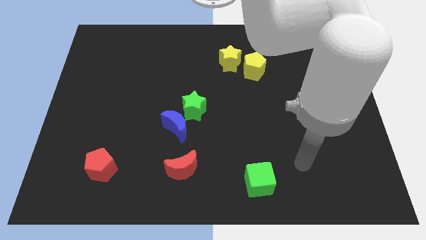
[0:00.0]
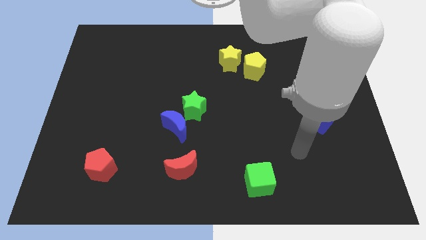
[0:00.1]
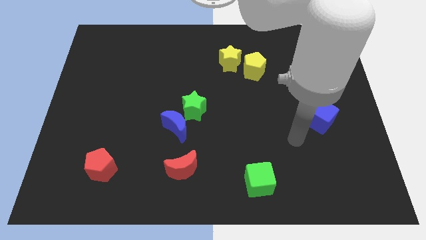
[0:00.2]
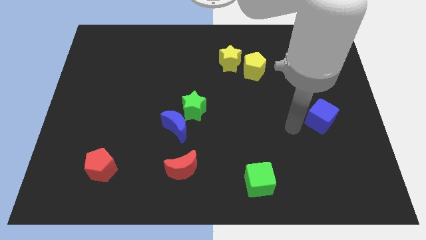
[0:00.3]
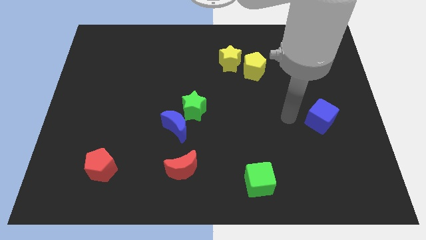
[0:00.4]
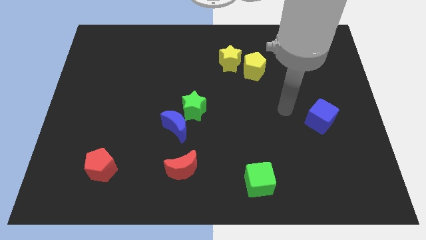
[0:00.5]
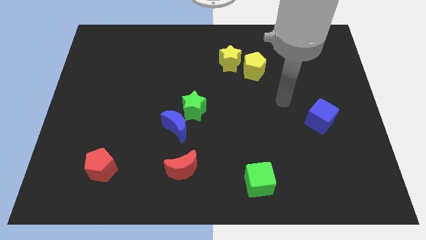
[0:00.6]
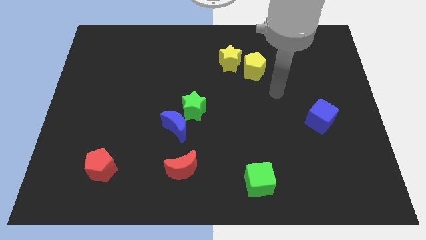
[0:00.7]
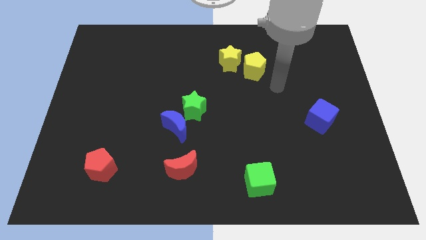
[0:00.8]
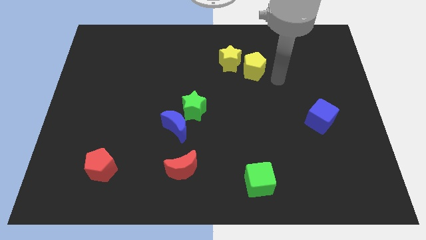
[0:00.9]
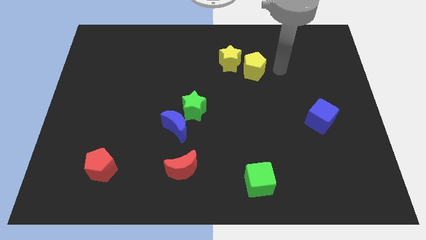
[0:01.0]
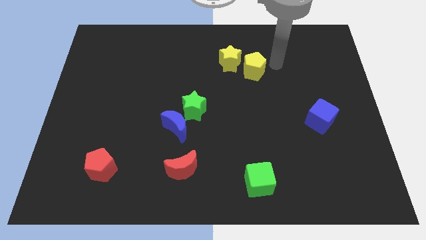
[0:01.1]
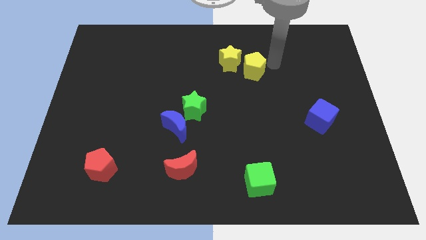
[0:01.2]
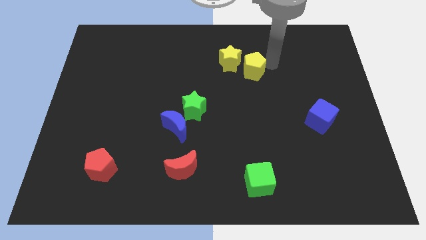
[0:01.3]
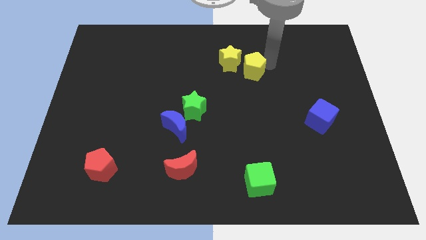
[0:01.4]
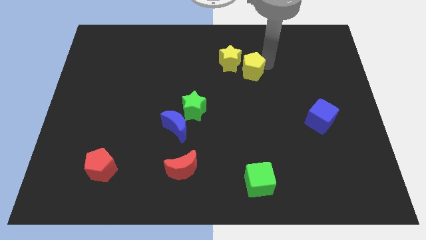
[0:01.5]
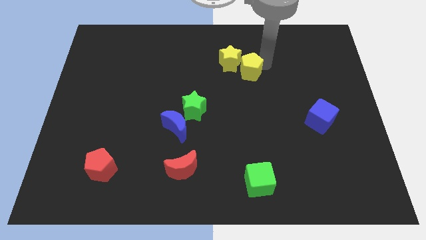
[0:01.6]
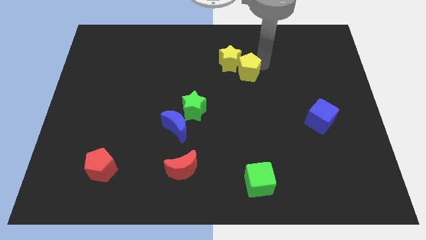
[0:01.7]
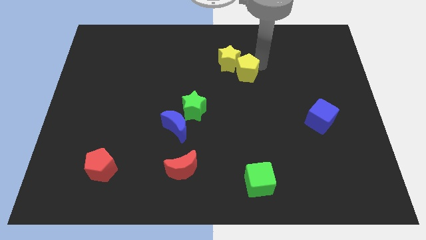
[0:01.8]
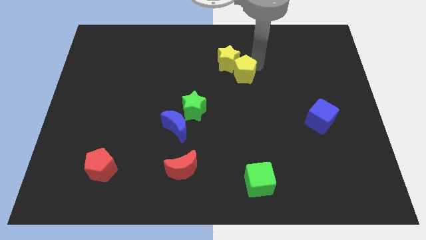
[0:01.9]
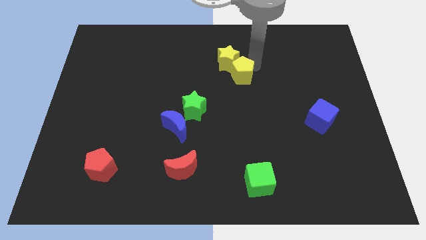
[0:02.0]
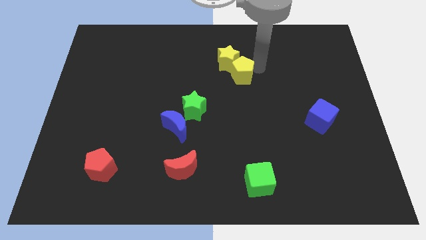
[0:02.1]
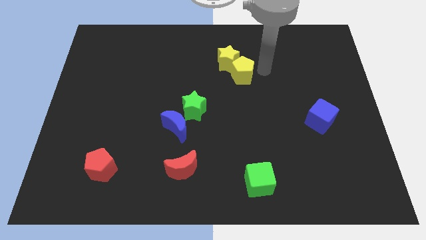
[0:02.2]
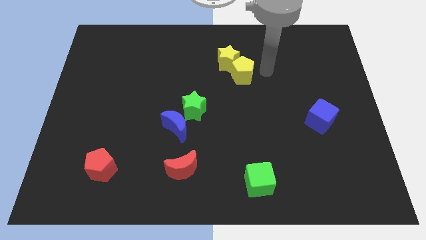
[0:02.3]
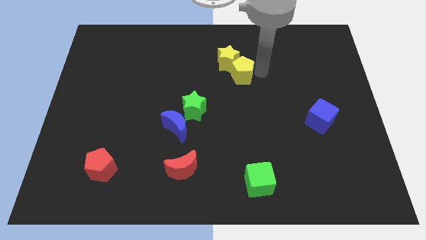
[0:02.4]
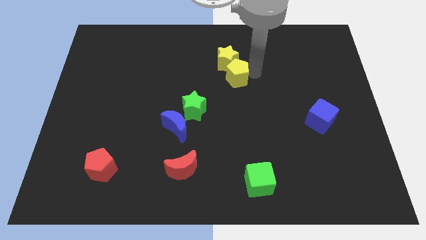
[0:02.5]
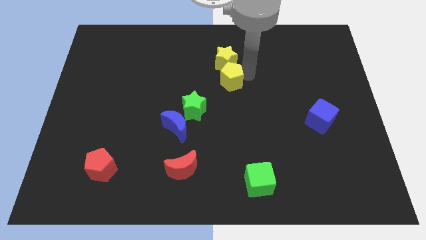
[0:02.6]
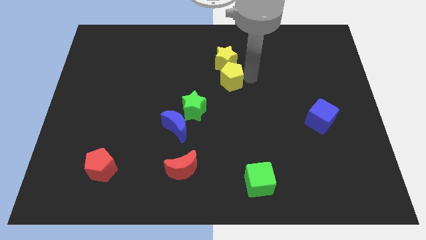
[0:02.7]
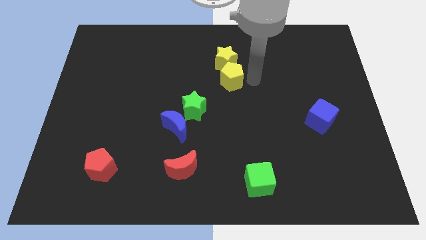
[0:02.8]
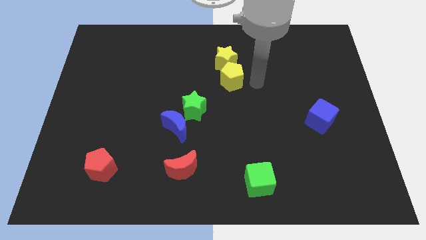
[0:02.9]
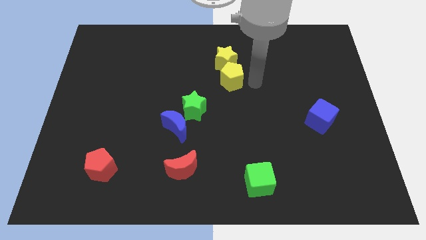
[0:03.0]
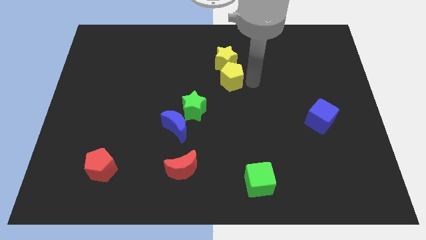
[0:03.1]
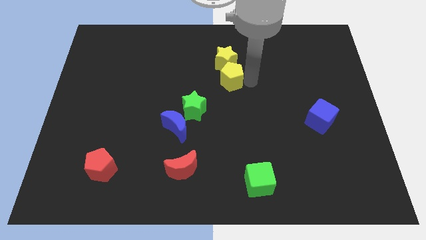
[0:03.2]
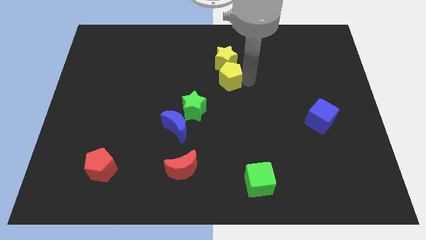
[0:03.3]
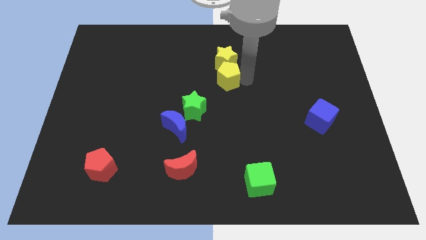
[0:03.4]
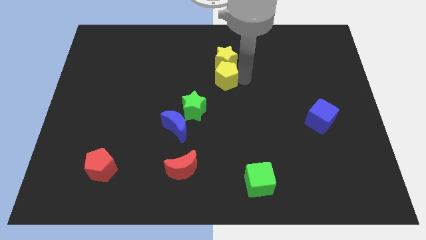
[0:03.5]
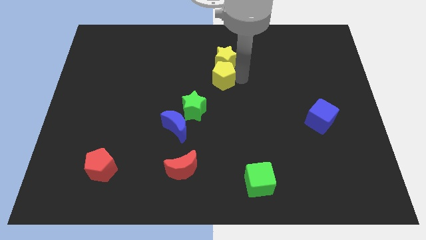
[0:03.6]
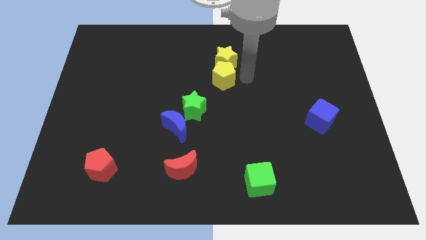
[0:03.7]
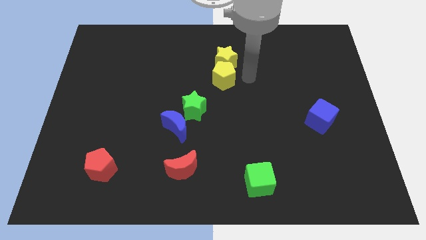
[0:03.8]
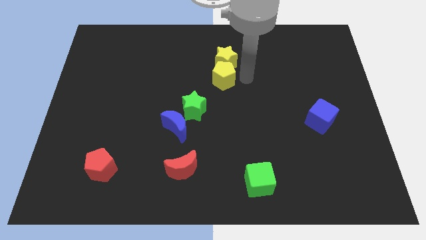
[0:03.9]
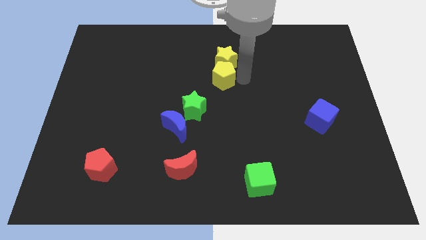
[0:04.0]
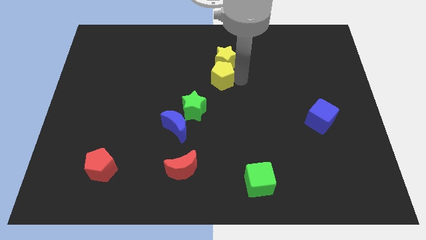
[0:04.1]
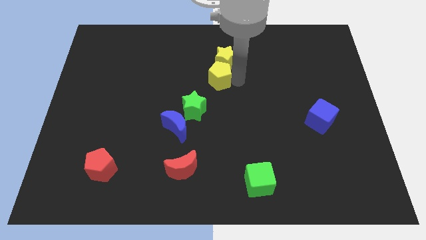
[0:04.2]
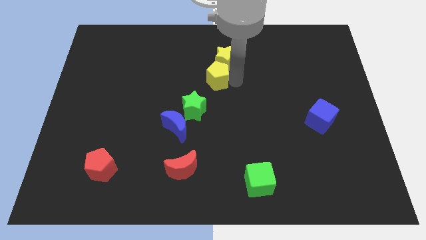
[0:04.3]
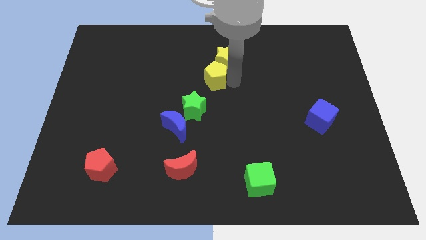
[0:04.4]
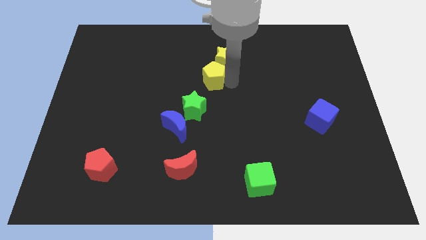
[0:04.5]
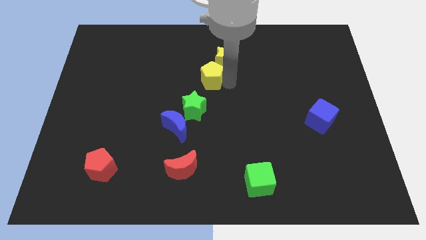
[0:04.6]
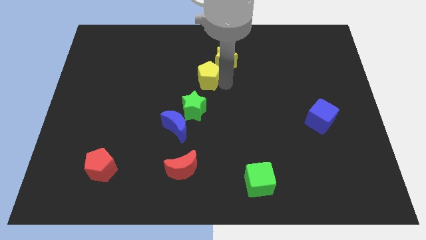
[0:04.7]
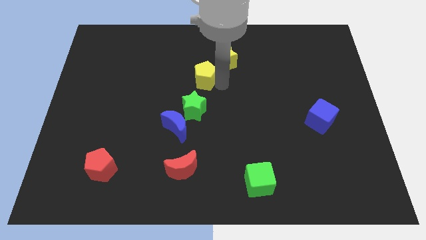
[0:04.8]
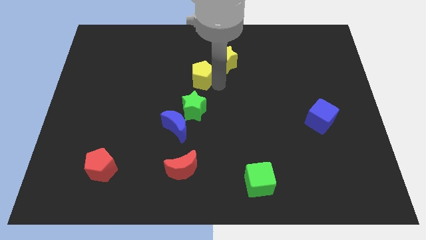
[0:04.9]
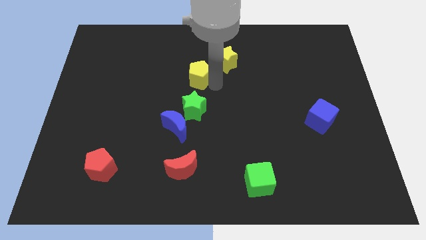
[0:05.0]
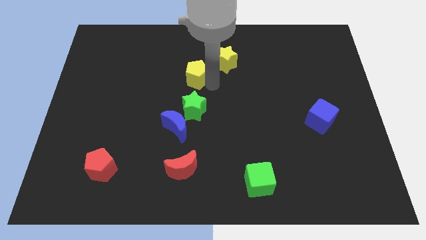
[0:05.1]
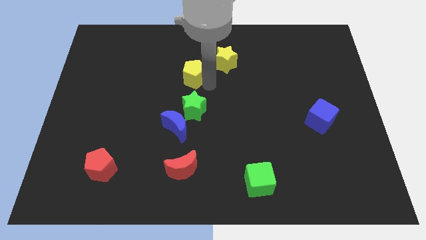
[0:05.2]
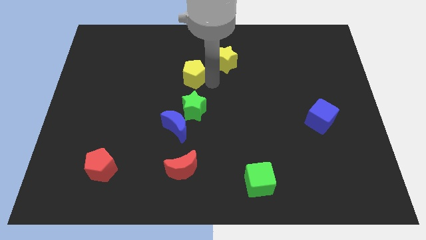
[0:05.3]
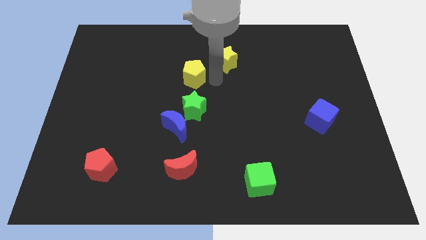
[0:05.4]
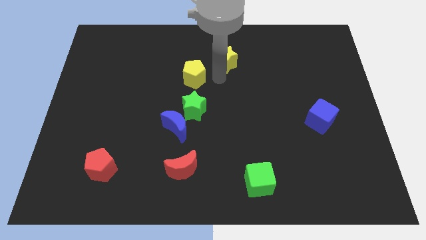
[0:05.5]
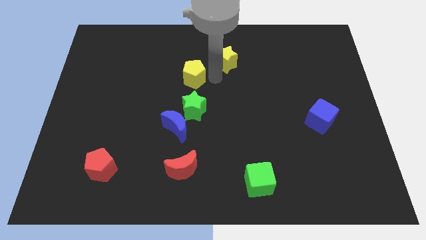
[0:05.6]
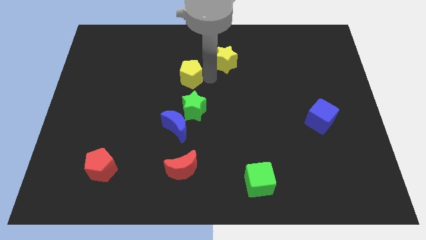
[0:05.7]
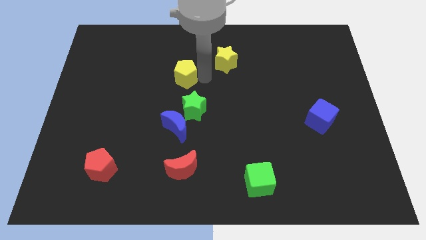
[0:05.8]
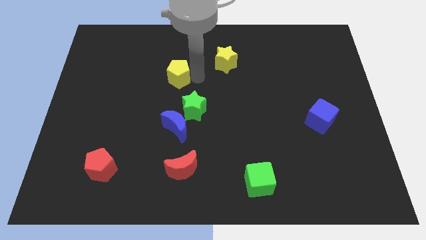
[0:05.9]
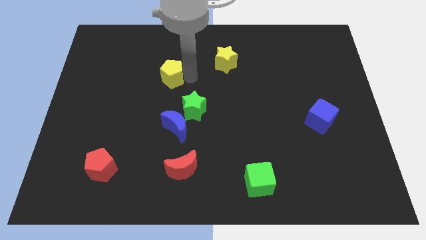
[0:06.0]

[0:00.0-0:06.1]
push the yellow pentagon left

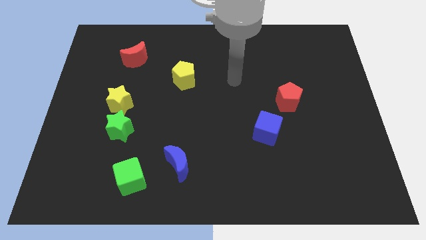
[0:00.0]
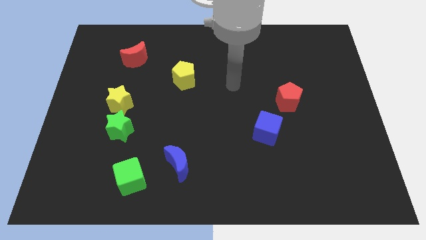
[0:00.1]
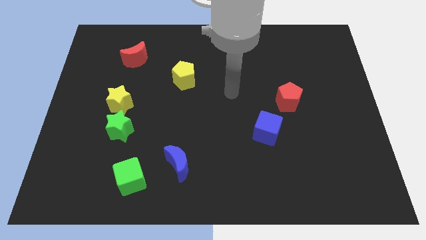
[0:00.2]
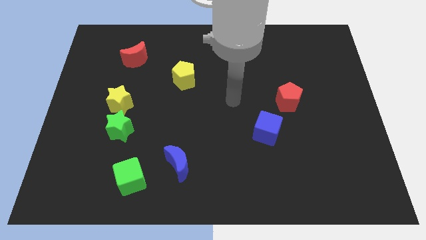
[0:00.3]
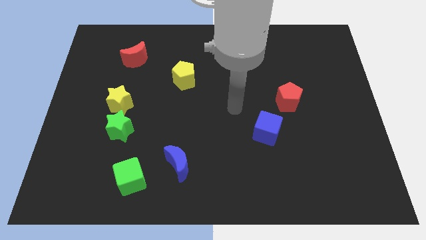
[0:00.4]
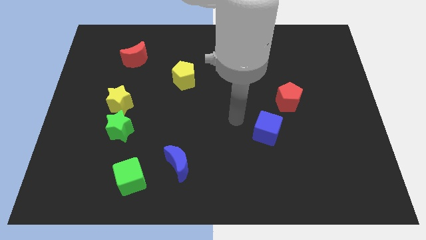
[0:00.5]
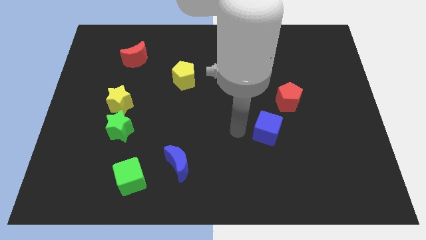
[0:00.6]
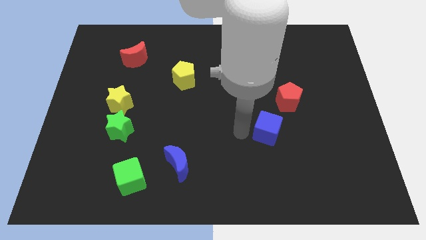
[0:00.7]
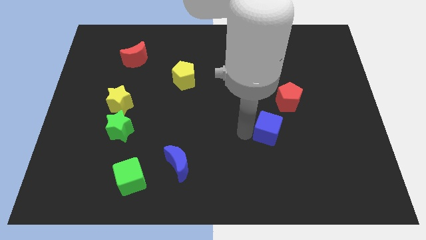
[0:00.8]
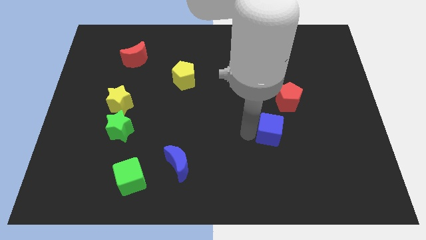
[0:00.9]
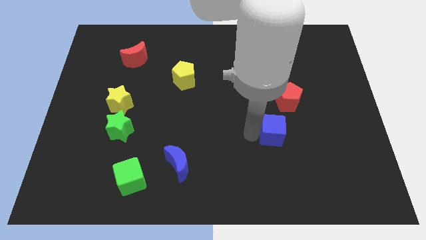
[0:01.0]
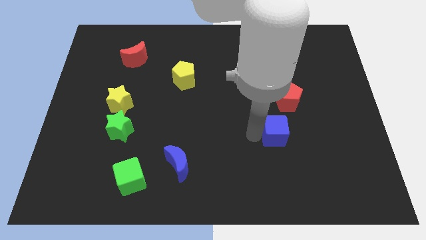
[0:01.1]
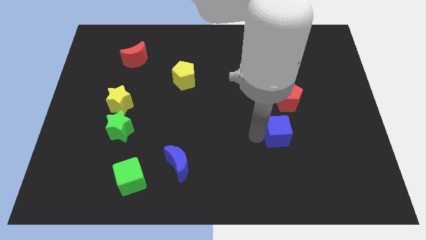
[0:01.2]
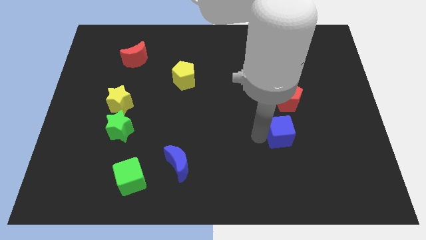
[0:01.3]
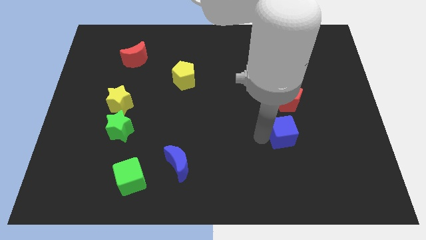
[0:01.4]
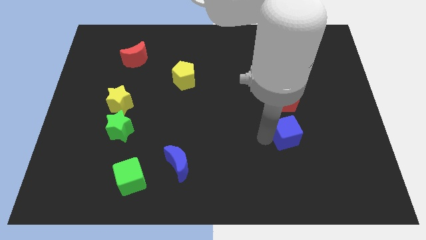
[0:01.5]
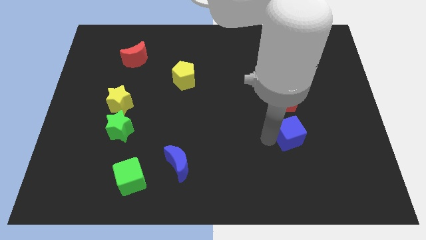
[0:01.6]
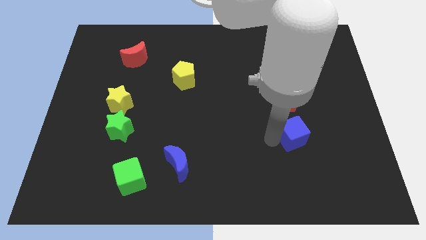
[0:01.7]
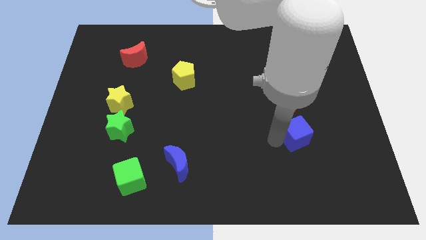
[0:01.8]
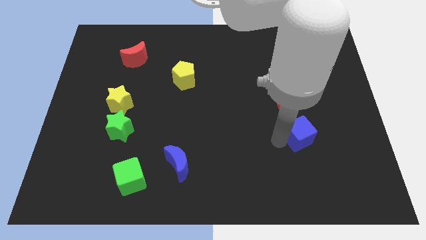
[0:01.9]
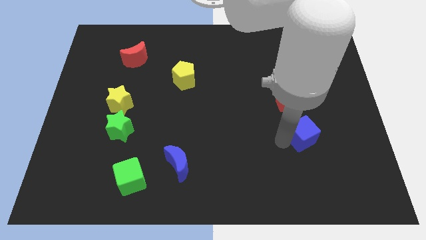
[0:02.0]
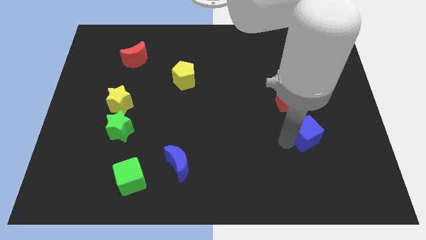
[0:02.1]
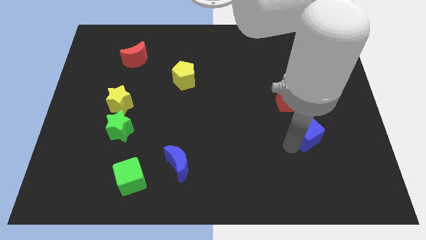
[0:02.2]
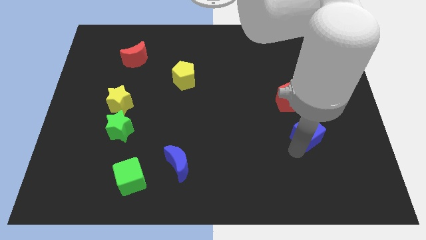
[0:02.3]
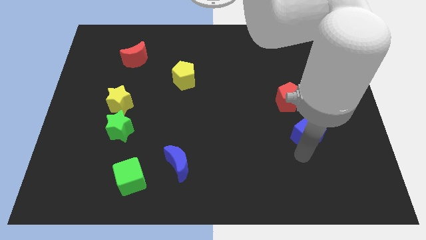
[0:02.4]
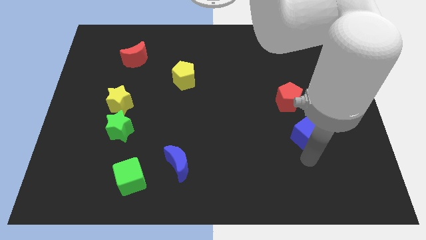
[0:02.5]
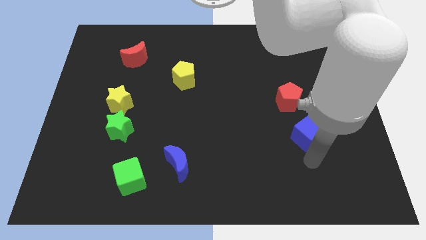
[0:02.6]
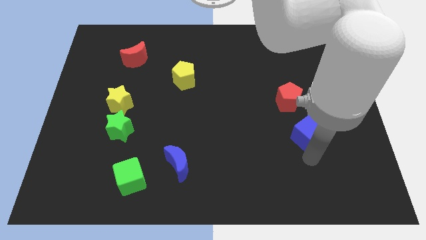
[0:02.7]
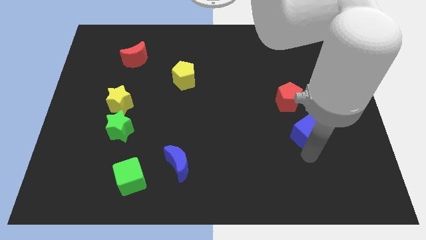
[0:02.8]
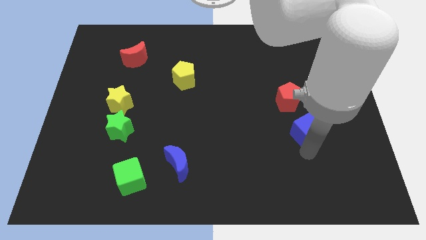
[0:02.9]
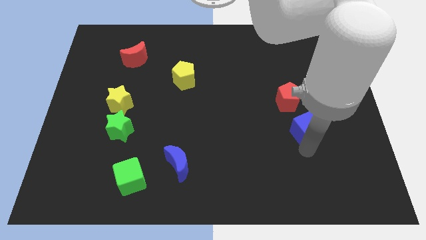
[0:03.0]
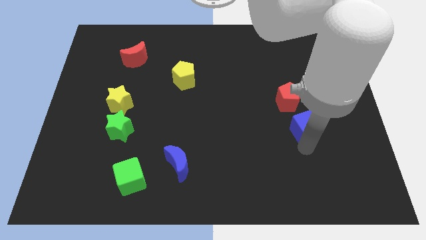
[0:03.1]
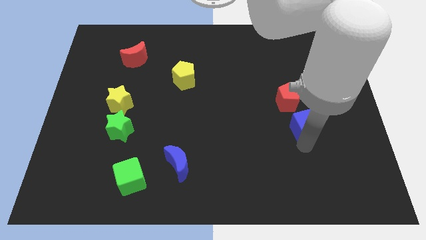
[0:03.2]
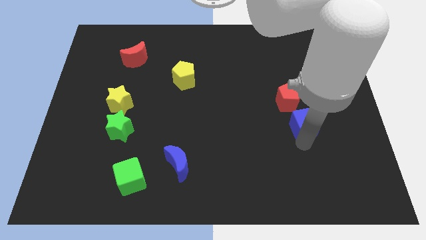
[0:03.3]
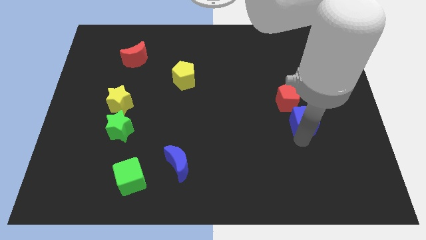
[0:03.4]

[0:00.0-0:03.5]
push the blue cube slightly diagonally upwards and to the right
